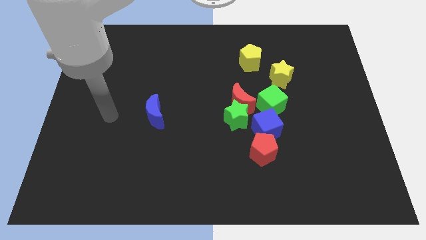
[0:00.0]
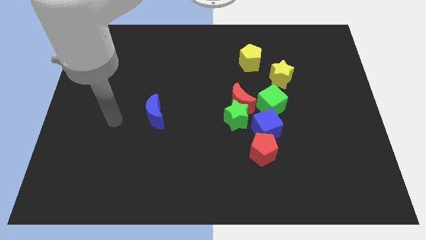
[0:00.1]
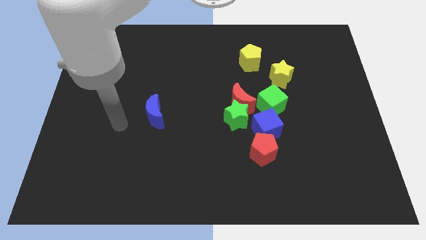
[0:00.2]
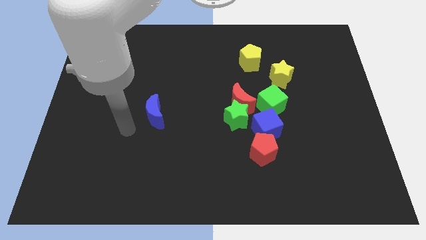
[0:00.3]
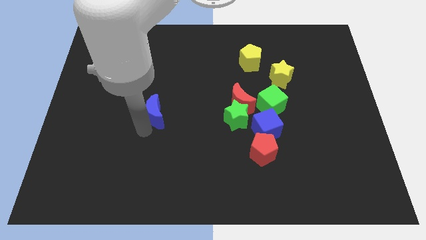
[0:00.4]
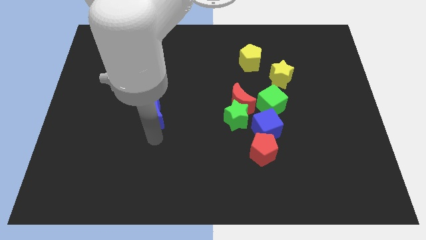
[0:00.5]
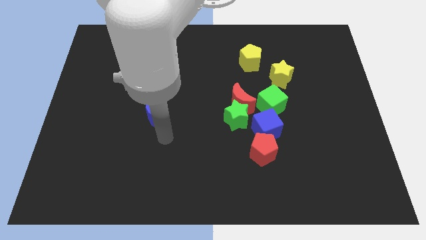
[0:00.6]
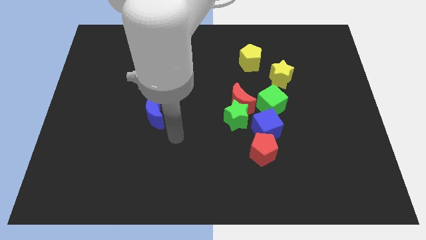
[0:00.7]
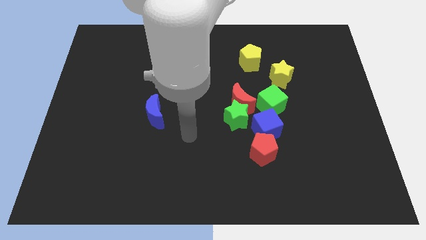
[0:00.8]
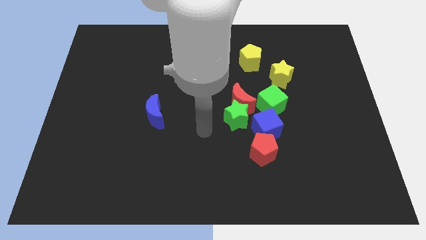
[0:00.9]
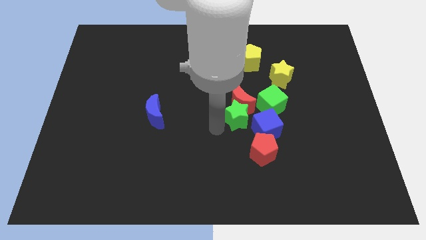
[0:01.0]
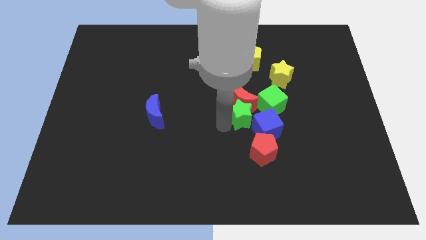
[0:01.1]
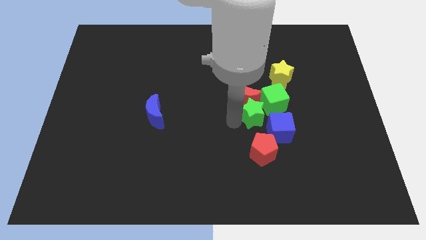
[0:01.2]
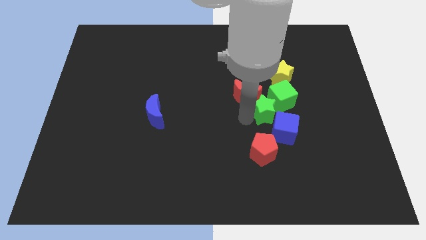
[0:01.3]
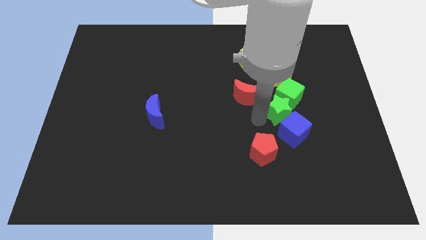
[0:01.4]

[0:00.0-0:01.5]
pull the red moon apart from the green star, green cube, and blue cube

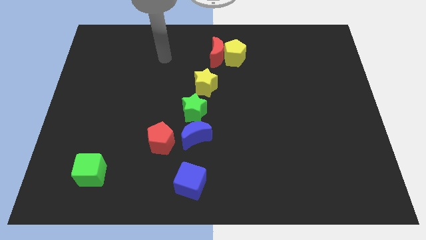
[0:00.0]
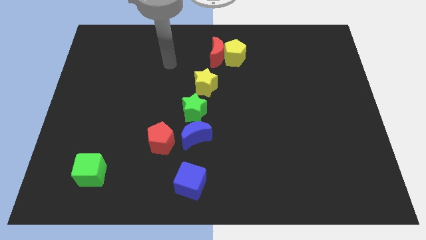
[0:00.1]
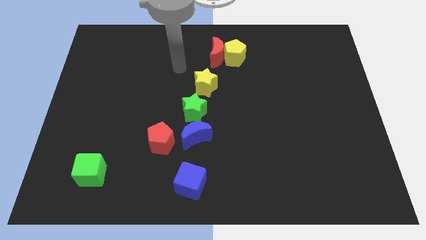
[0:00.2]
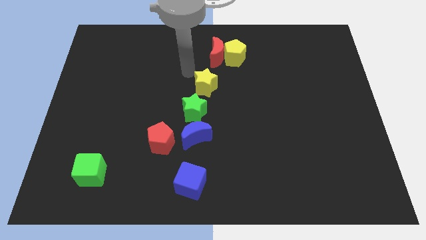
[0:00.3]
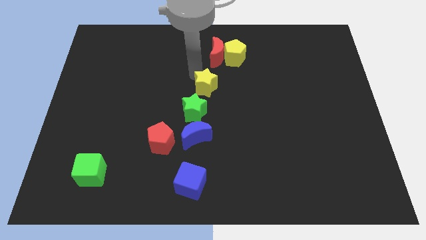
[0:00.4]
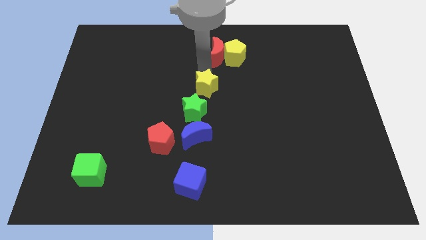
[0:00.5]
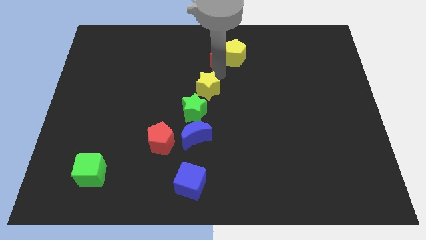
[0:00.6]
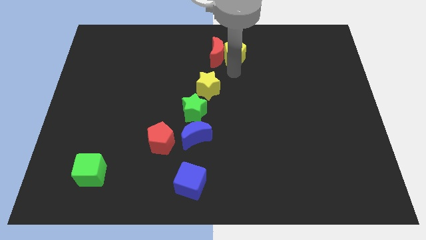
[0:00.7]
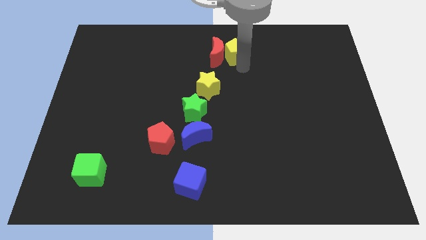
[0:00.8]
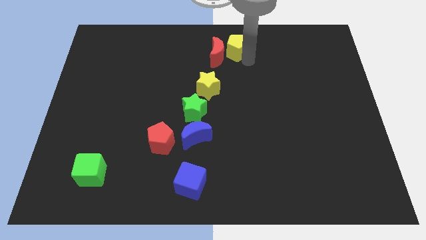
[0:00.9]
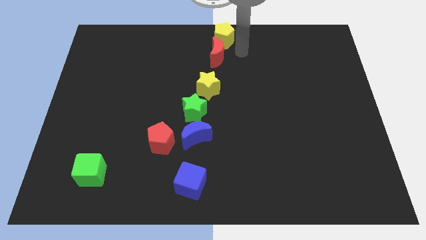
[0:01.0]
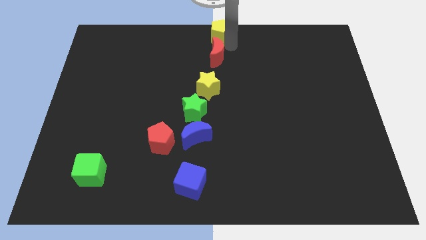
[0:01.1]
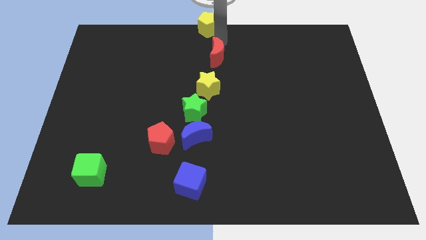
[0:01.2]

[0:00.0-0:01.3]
move the red moon away from the yellow pentagon

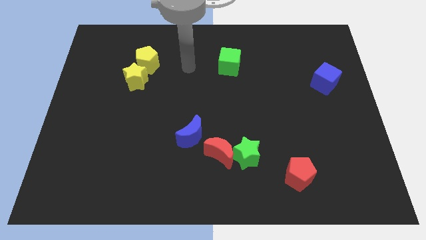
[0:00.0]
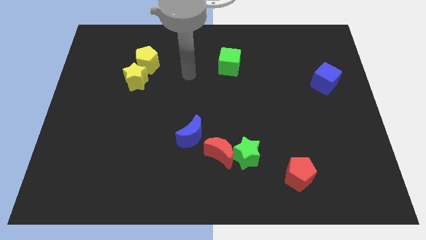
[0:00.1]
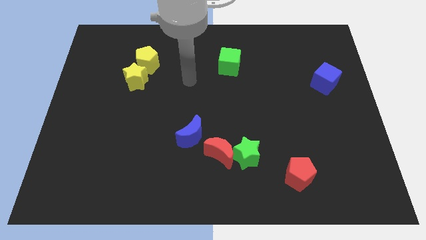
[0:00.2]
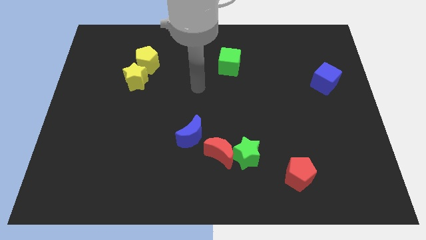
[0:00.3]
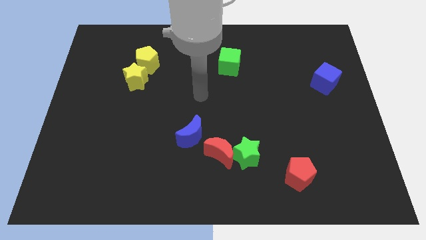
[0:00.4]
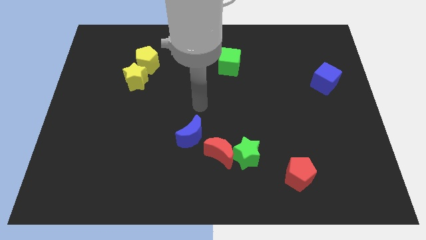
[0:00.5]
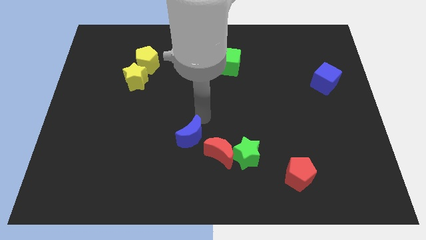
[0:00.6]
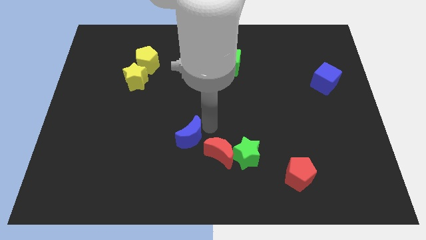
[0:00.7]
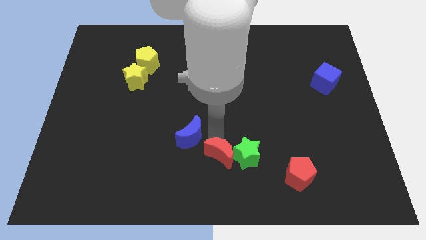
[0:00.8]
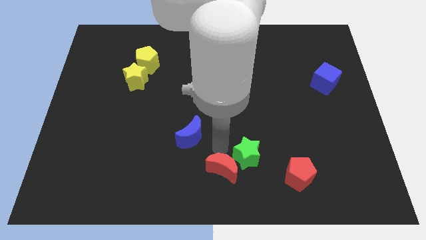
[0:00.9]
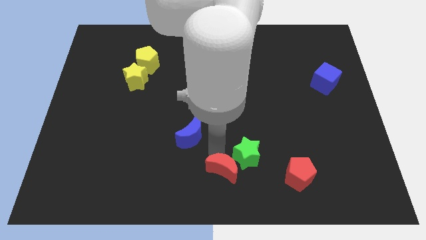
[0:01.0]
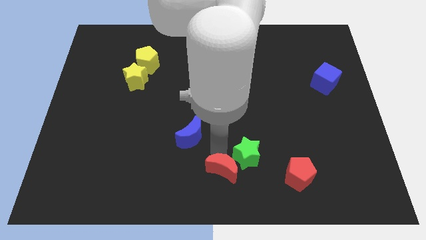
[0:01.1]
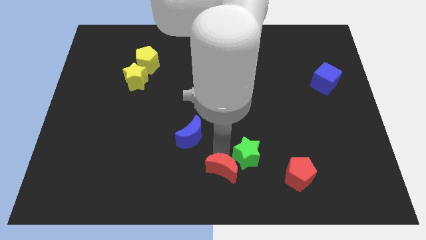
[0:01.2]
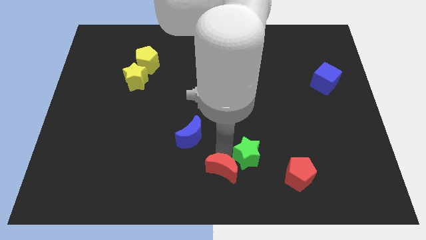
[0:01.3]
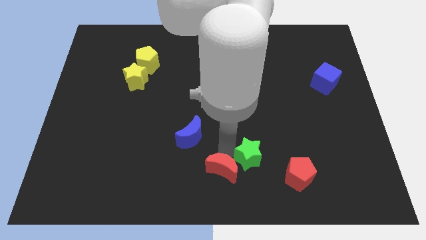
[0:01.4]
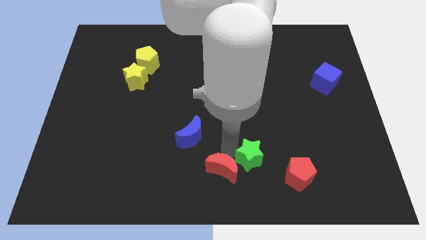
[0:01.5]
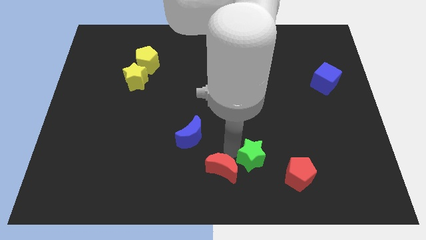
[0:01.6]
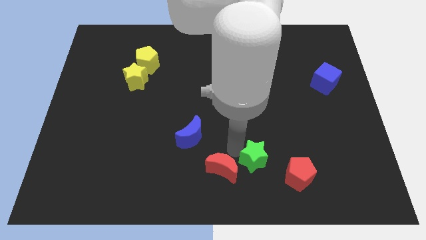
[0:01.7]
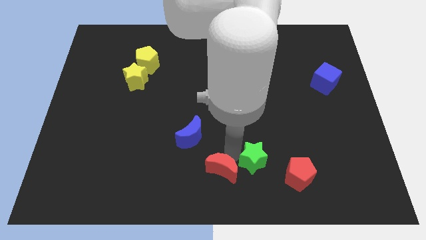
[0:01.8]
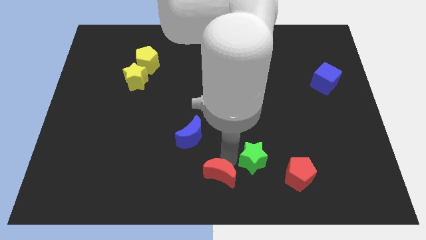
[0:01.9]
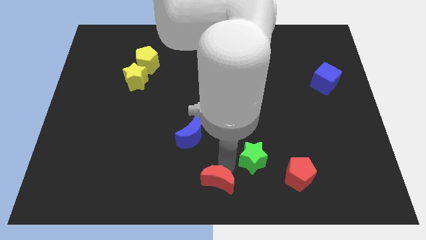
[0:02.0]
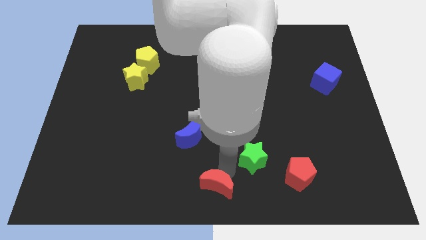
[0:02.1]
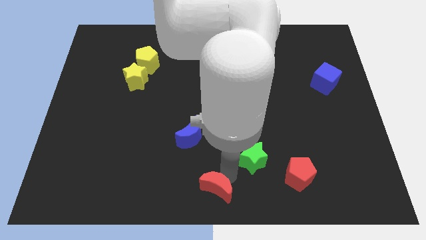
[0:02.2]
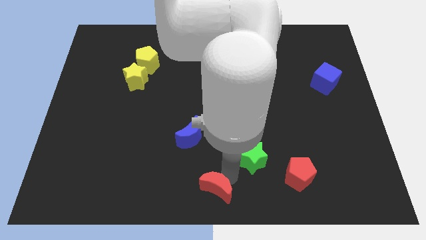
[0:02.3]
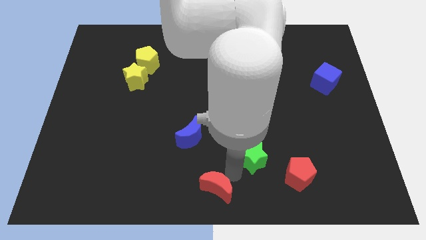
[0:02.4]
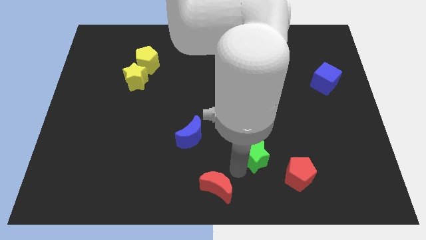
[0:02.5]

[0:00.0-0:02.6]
move the green star away from the red moon

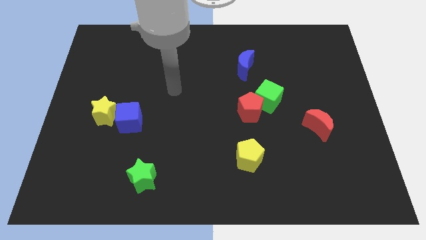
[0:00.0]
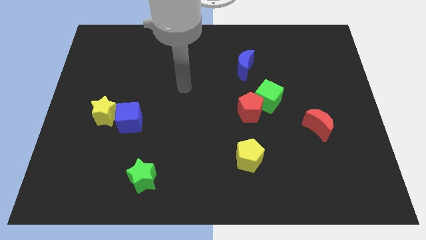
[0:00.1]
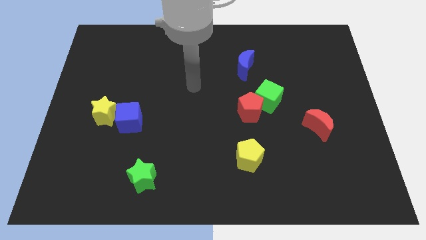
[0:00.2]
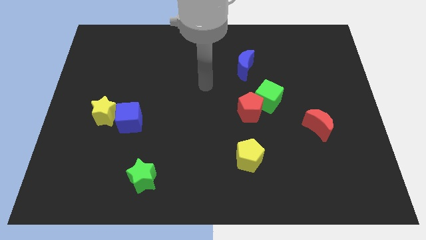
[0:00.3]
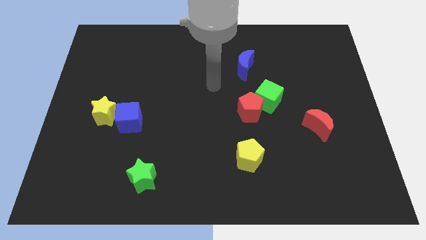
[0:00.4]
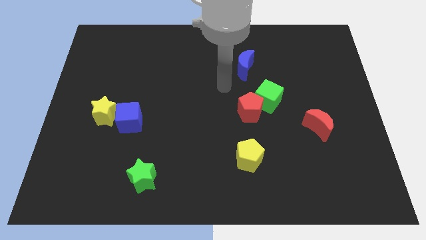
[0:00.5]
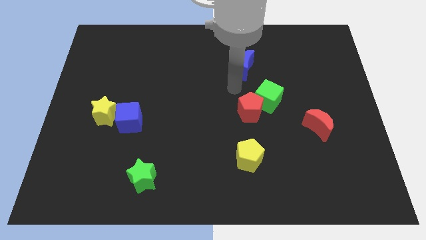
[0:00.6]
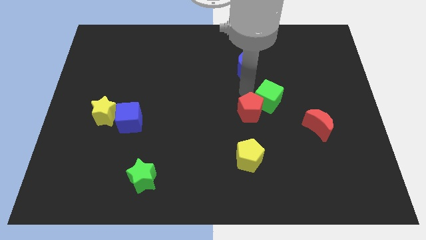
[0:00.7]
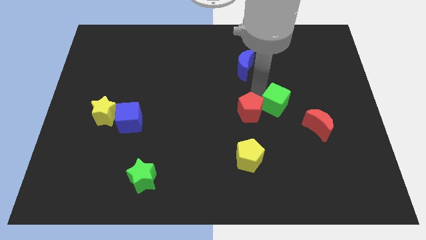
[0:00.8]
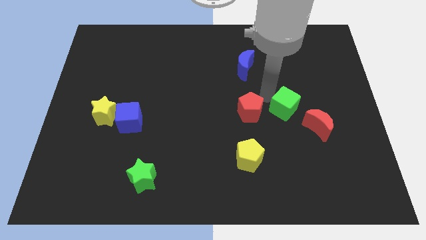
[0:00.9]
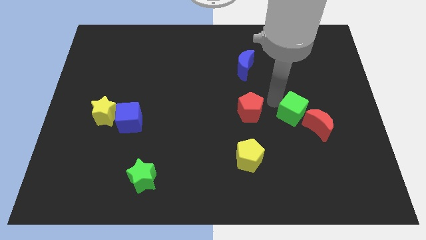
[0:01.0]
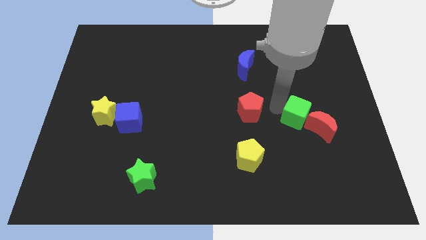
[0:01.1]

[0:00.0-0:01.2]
pull the red pentagon apart from the green cube

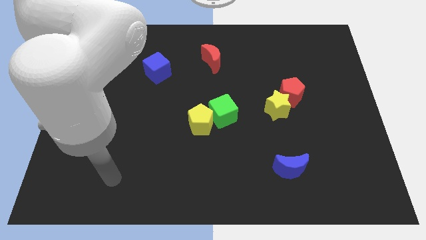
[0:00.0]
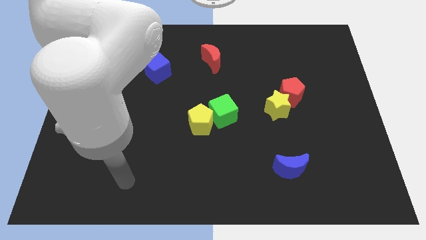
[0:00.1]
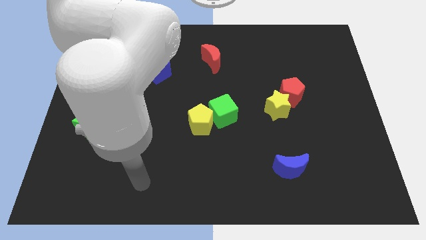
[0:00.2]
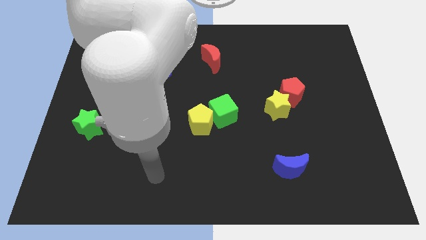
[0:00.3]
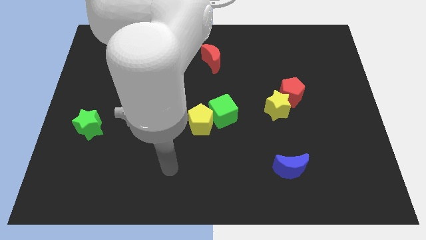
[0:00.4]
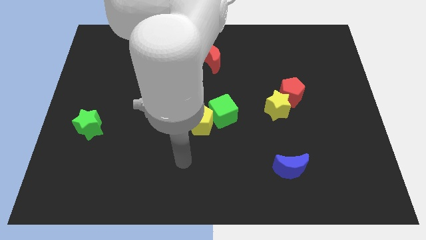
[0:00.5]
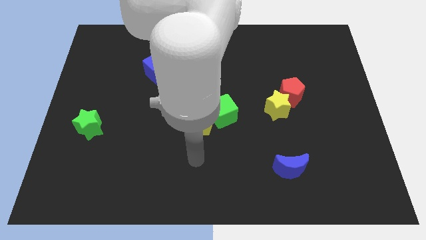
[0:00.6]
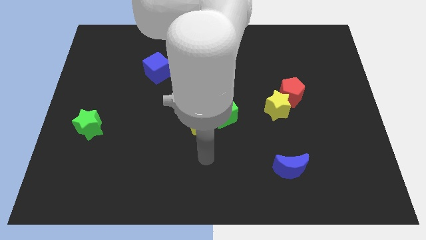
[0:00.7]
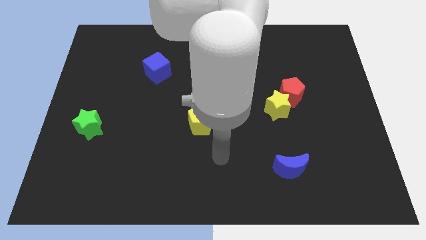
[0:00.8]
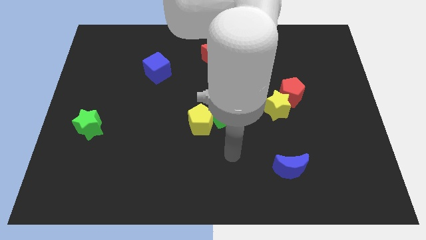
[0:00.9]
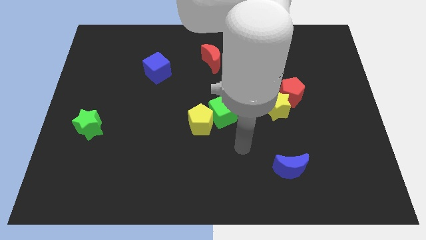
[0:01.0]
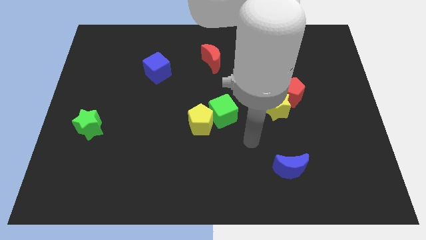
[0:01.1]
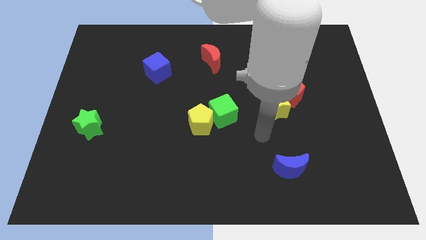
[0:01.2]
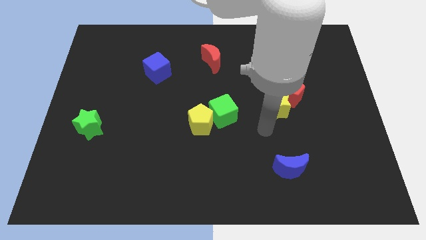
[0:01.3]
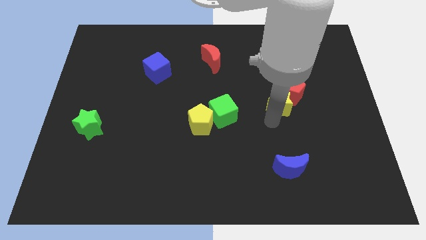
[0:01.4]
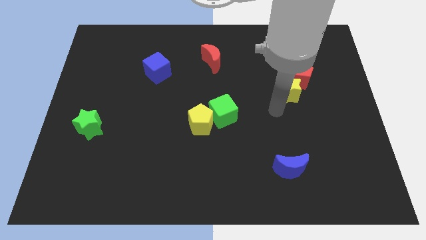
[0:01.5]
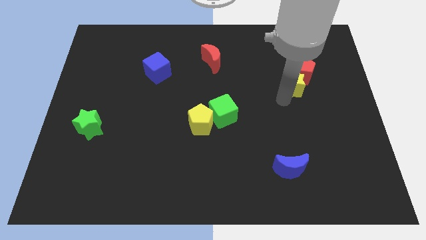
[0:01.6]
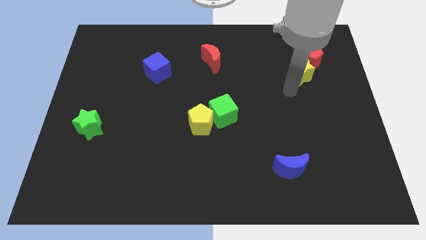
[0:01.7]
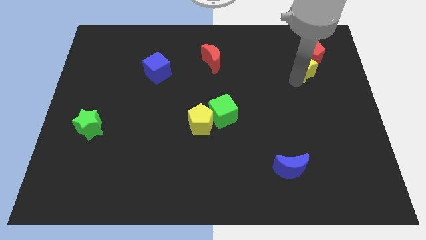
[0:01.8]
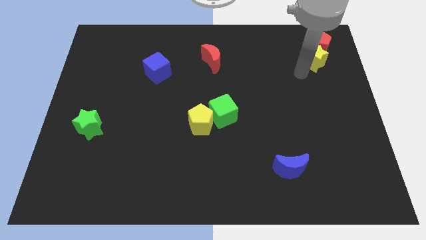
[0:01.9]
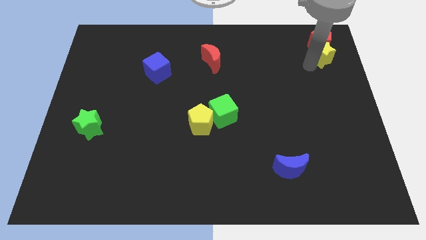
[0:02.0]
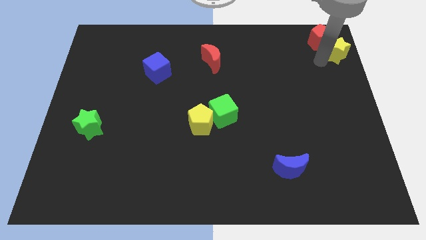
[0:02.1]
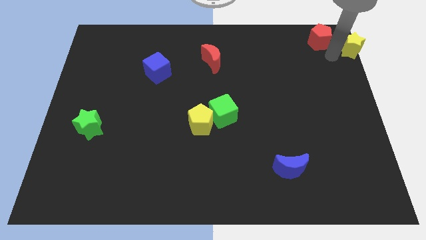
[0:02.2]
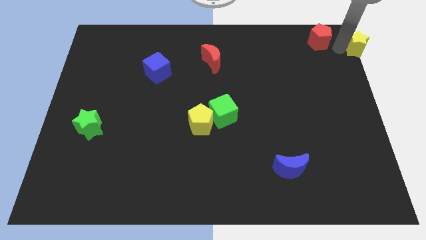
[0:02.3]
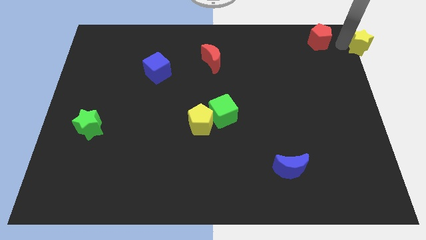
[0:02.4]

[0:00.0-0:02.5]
move the red pentagon away from the yellow star
